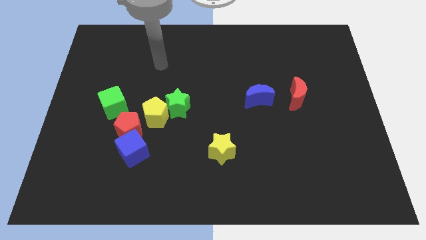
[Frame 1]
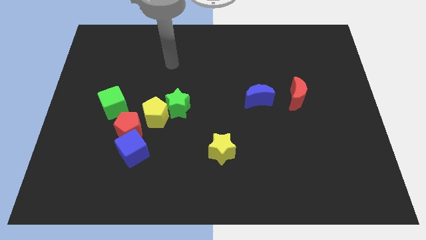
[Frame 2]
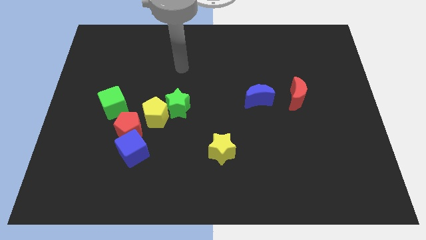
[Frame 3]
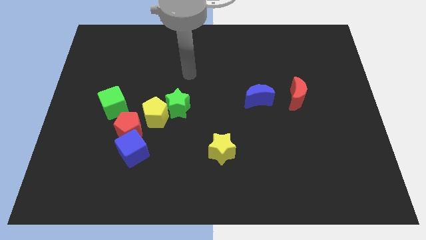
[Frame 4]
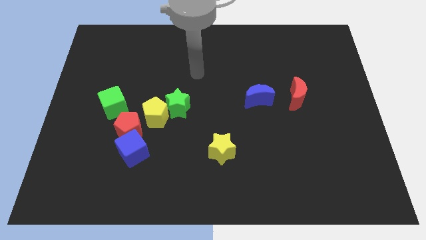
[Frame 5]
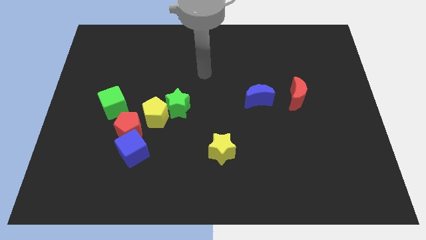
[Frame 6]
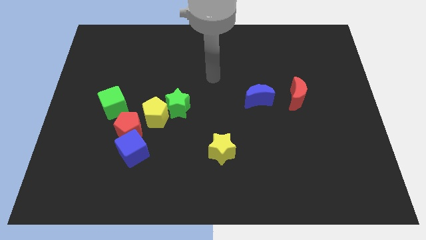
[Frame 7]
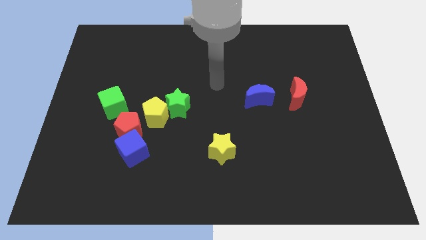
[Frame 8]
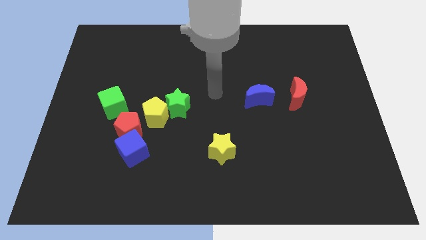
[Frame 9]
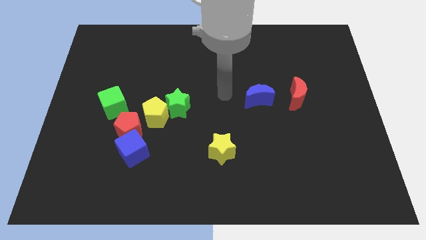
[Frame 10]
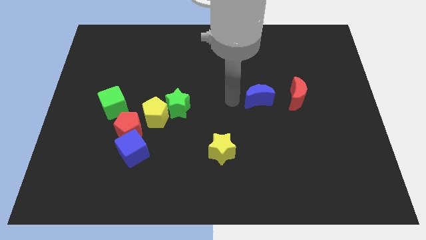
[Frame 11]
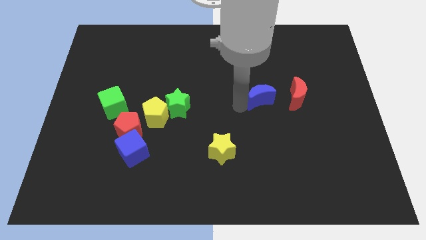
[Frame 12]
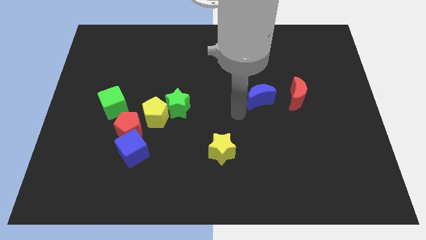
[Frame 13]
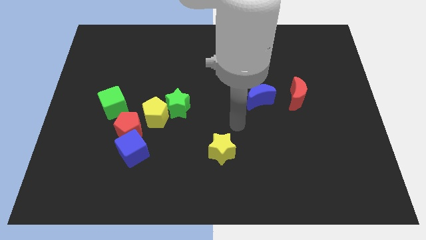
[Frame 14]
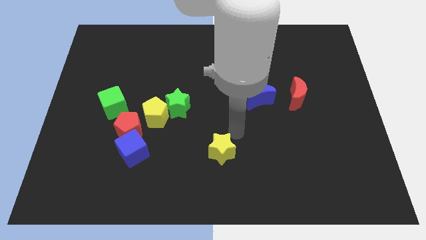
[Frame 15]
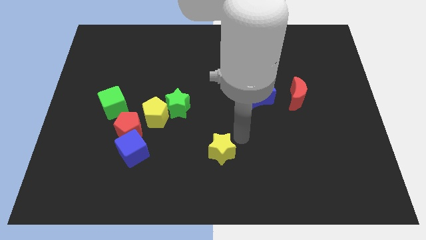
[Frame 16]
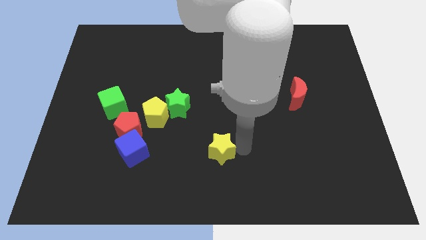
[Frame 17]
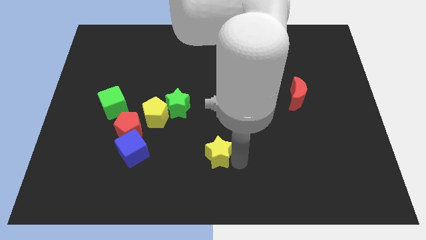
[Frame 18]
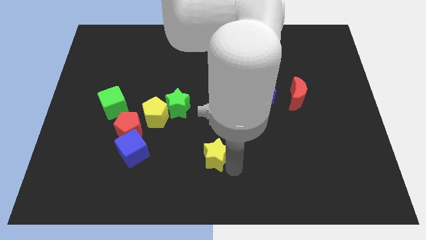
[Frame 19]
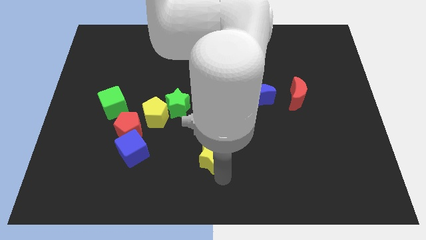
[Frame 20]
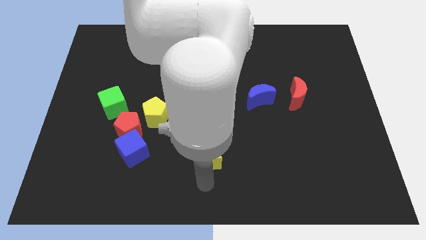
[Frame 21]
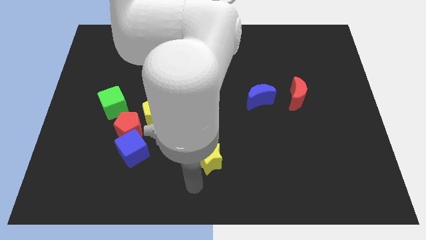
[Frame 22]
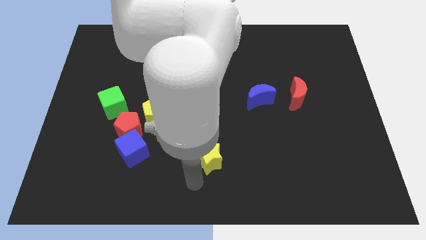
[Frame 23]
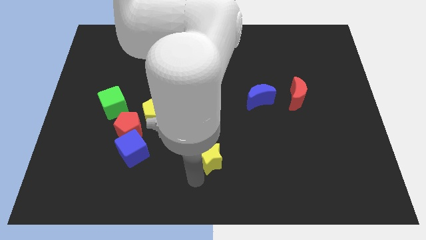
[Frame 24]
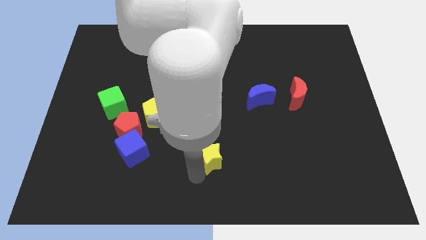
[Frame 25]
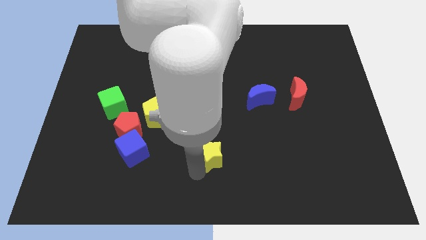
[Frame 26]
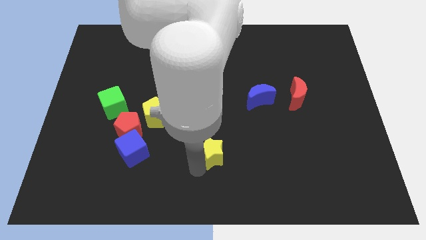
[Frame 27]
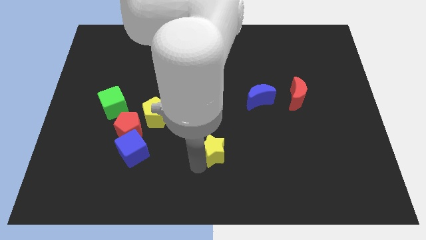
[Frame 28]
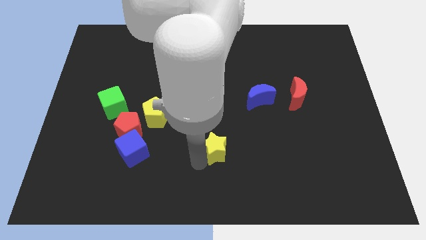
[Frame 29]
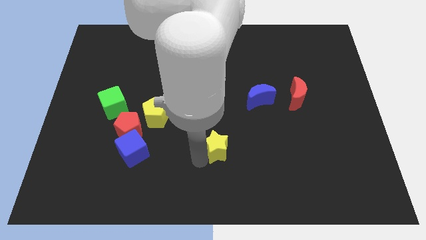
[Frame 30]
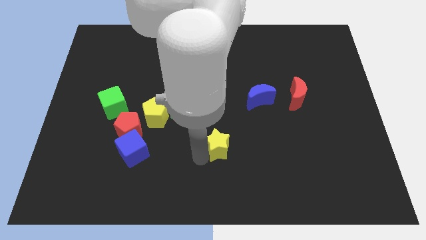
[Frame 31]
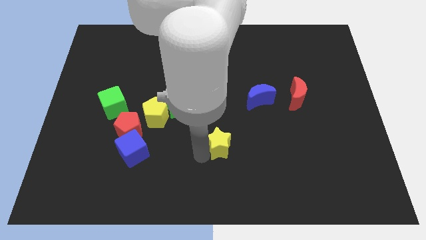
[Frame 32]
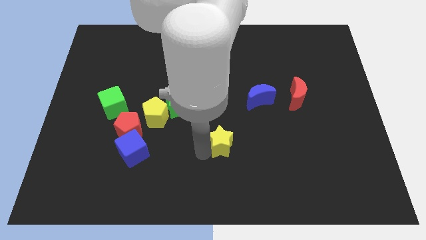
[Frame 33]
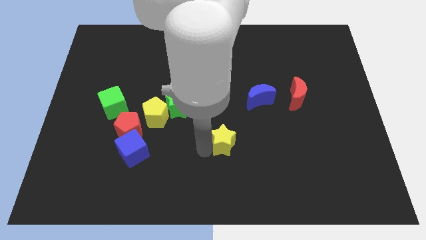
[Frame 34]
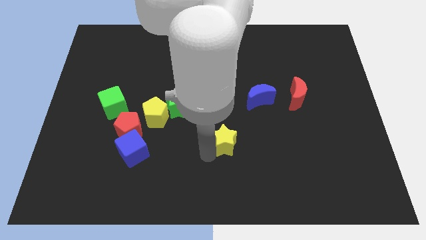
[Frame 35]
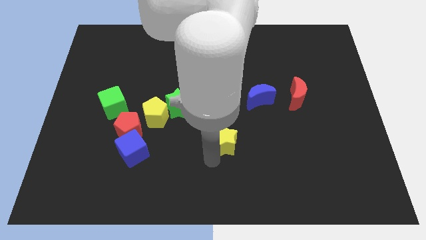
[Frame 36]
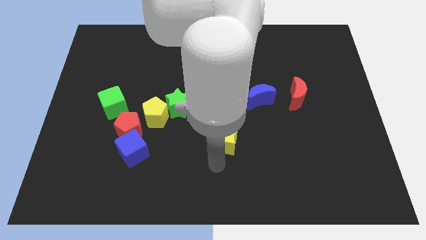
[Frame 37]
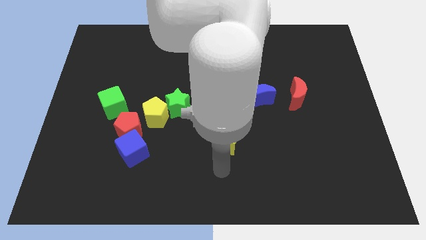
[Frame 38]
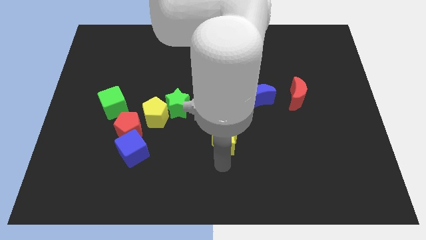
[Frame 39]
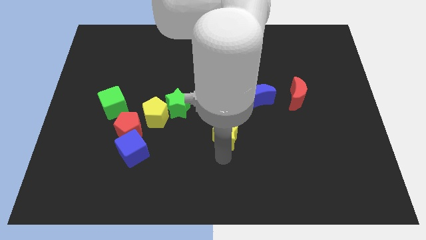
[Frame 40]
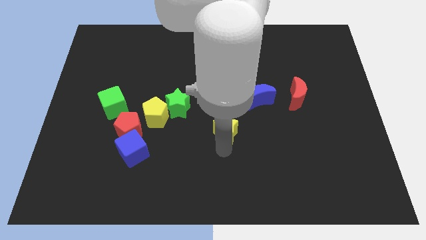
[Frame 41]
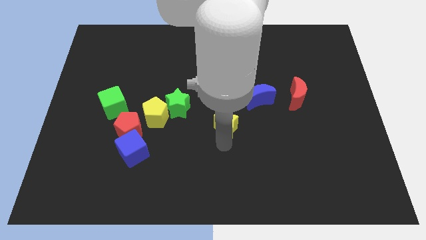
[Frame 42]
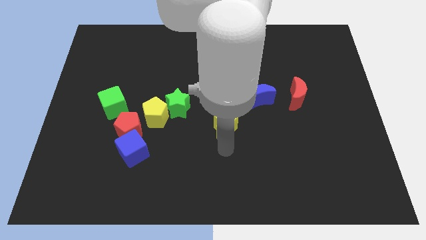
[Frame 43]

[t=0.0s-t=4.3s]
slightly slide the yellow star upwards

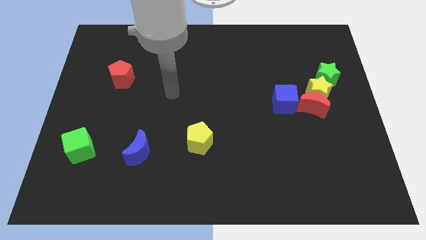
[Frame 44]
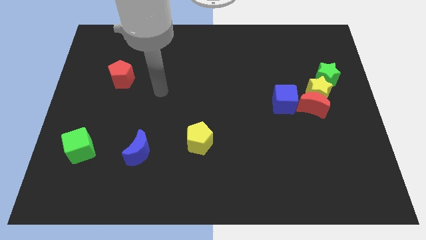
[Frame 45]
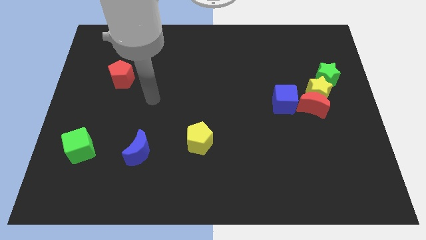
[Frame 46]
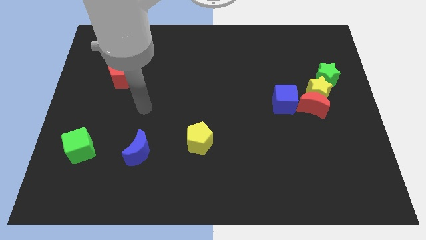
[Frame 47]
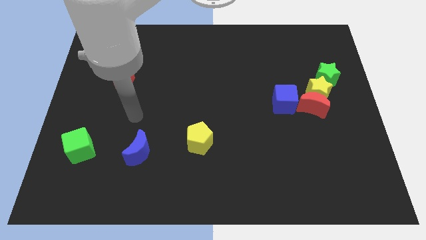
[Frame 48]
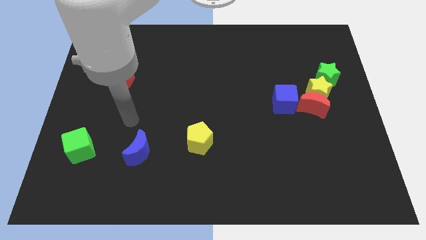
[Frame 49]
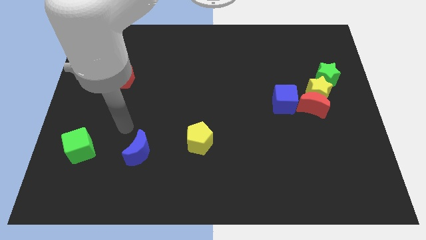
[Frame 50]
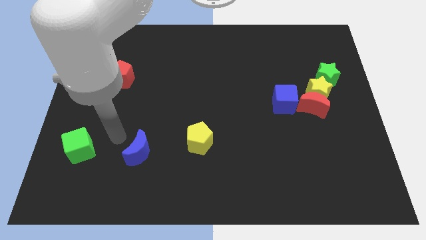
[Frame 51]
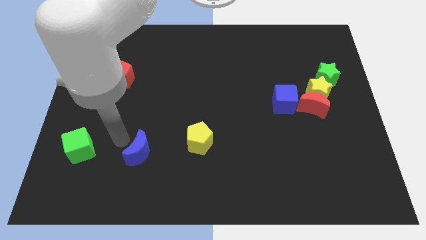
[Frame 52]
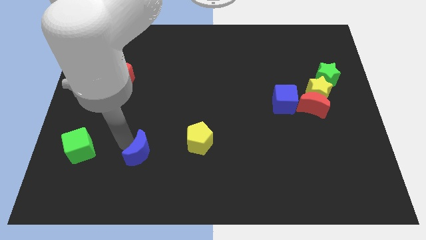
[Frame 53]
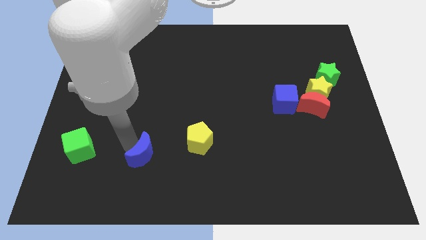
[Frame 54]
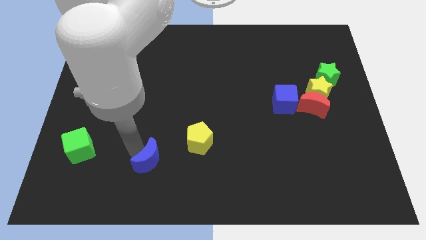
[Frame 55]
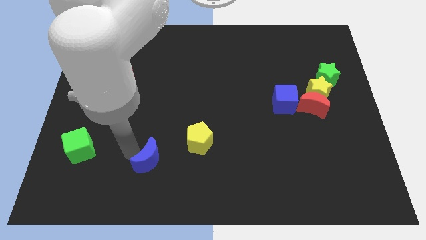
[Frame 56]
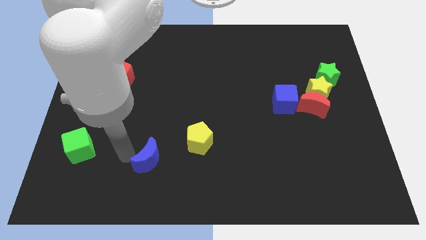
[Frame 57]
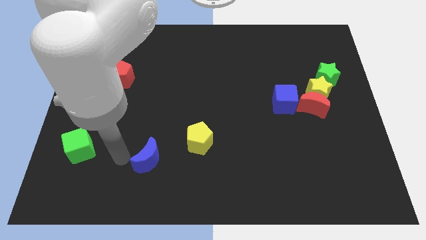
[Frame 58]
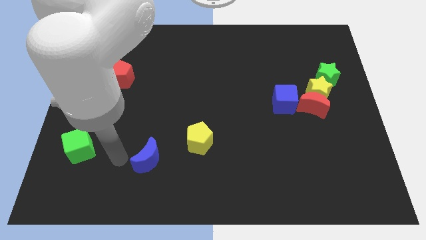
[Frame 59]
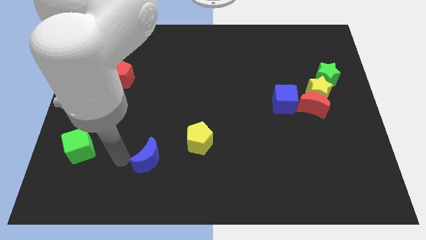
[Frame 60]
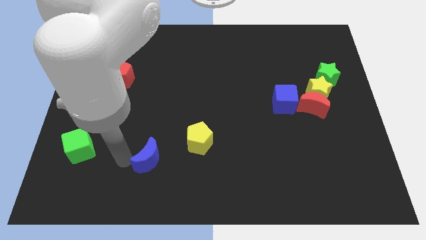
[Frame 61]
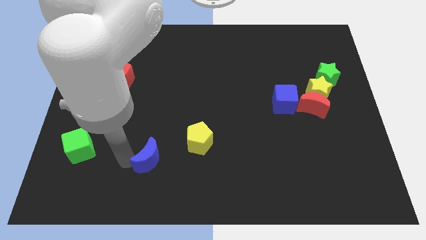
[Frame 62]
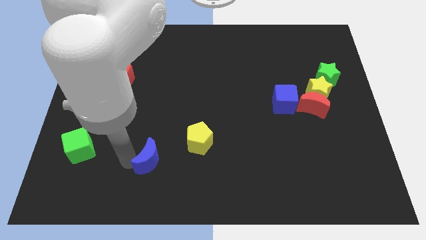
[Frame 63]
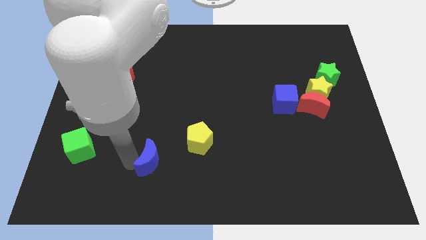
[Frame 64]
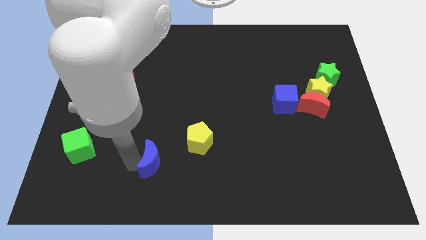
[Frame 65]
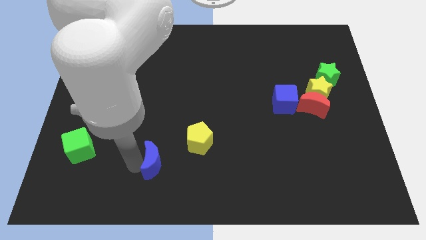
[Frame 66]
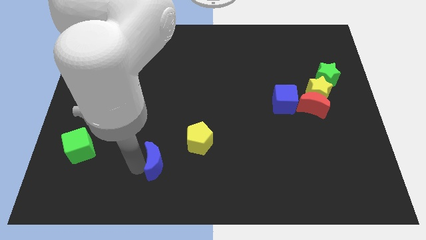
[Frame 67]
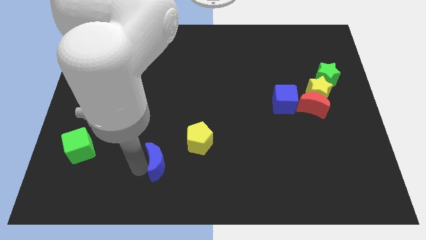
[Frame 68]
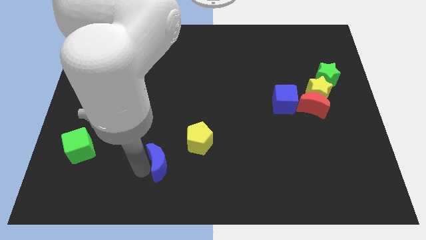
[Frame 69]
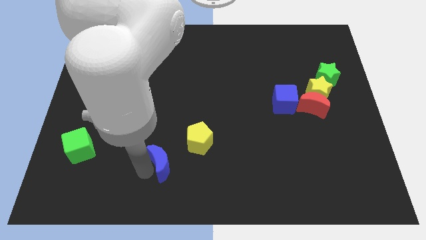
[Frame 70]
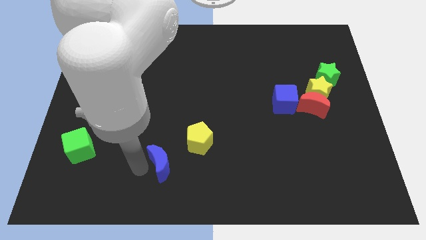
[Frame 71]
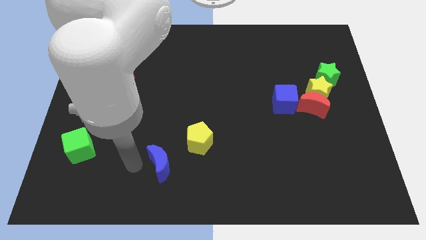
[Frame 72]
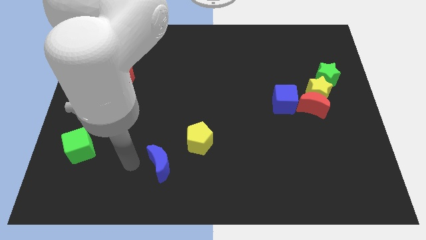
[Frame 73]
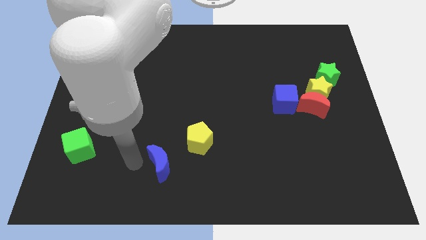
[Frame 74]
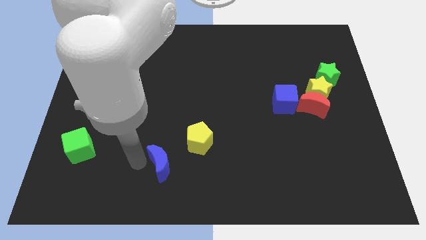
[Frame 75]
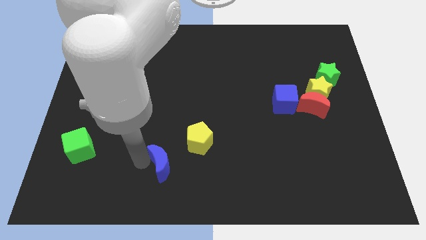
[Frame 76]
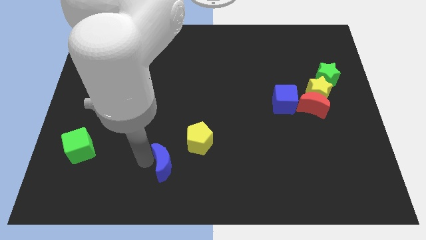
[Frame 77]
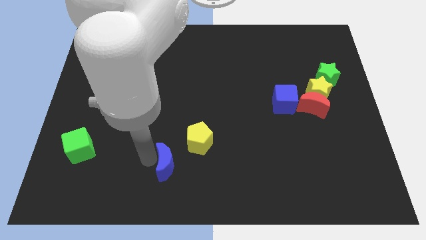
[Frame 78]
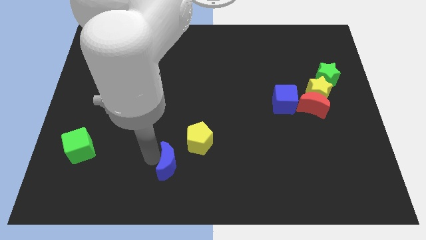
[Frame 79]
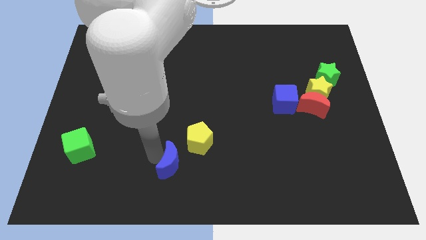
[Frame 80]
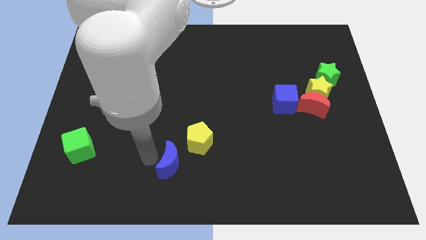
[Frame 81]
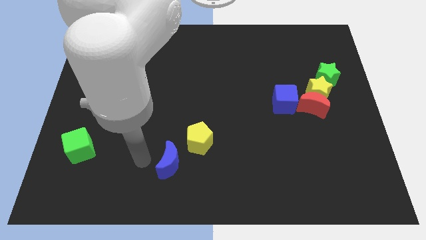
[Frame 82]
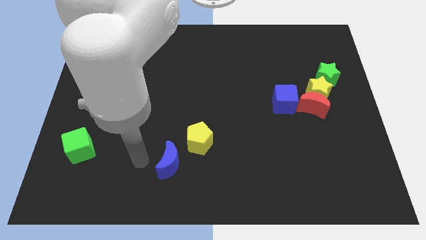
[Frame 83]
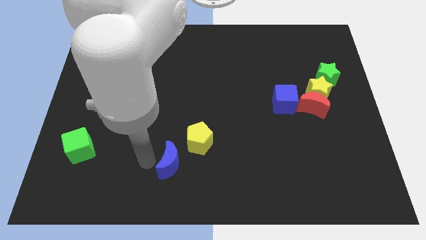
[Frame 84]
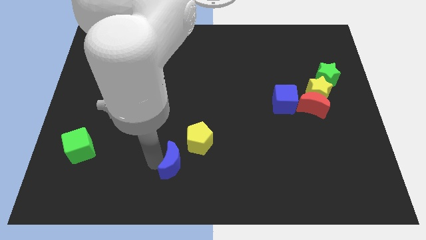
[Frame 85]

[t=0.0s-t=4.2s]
slightly slide the blue moon right
